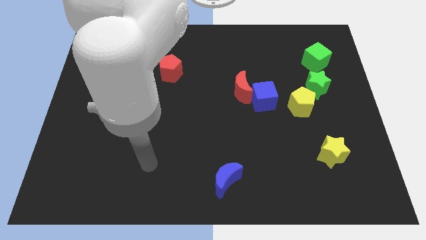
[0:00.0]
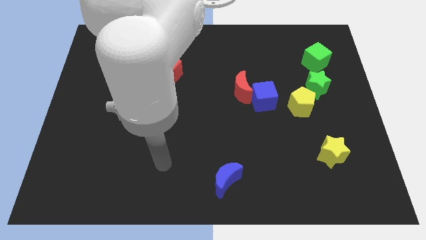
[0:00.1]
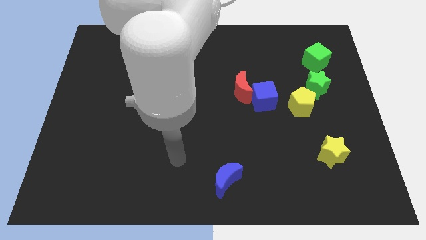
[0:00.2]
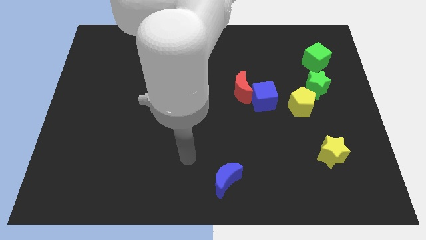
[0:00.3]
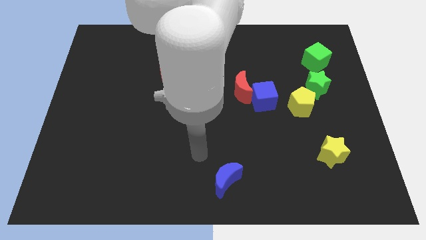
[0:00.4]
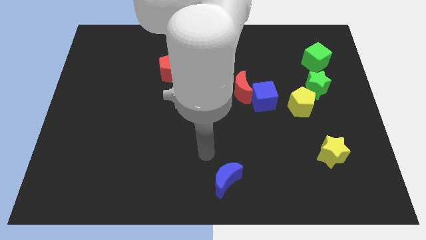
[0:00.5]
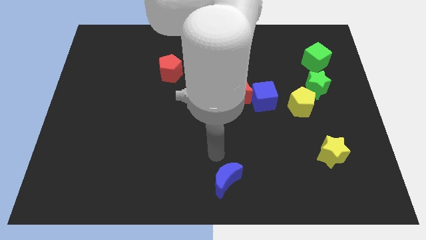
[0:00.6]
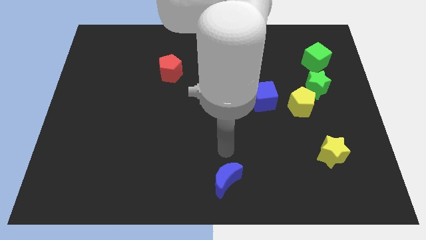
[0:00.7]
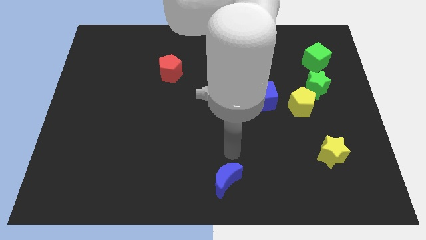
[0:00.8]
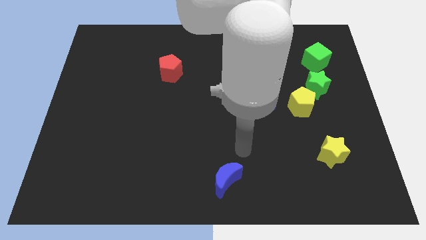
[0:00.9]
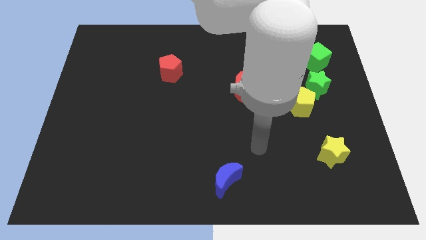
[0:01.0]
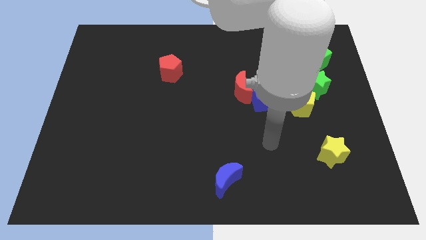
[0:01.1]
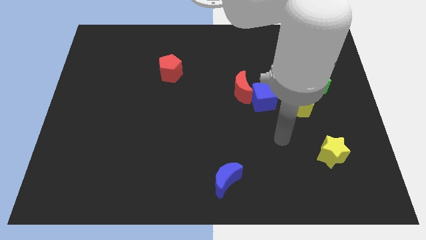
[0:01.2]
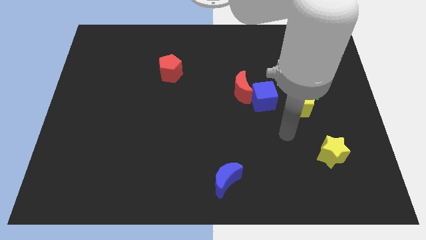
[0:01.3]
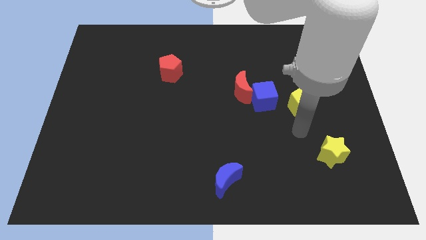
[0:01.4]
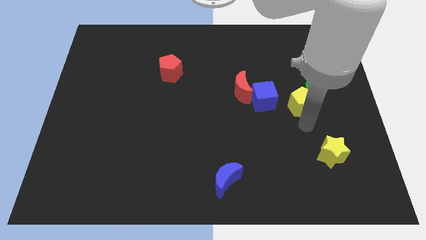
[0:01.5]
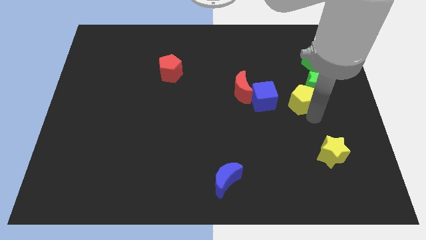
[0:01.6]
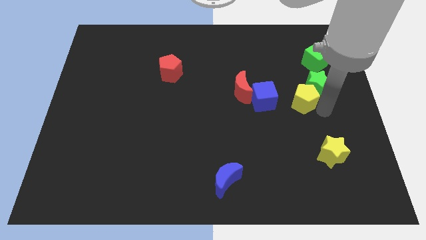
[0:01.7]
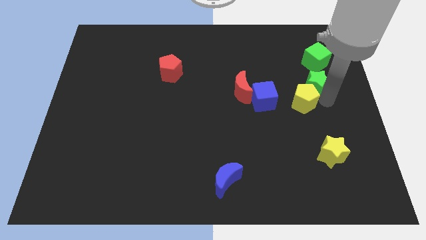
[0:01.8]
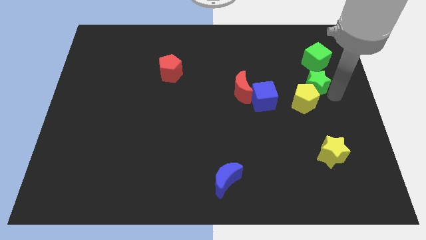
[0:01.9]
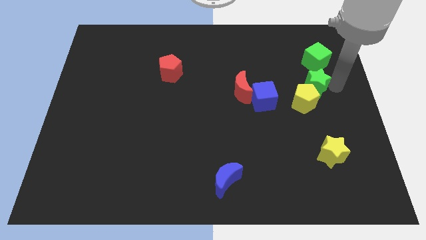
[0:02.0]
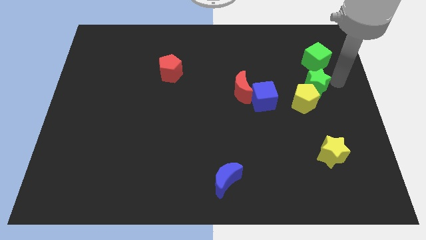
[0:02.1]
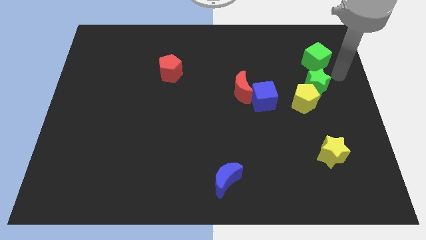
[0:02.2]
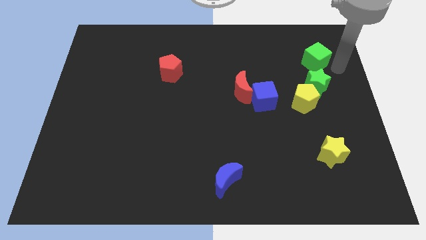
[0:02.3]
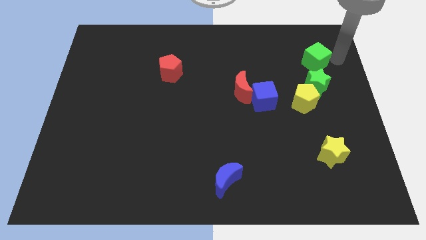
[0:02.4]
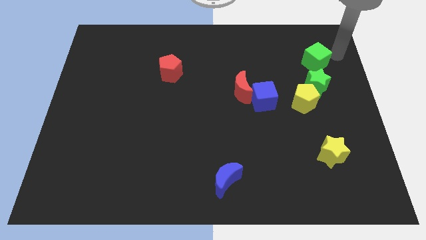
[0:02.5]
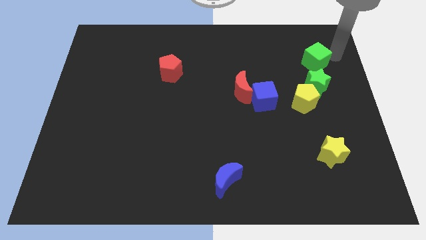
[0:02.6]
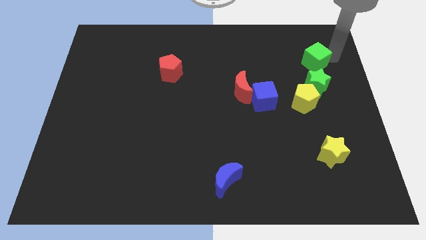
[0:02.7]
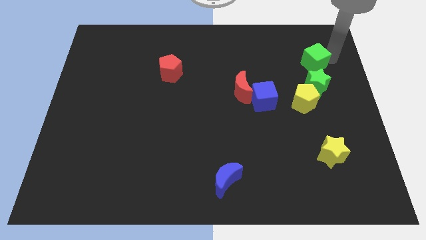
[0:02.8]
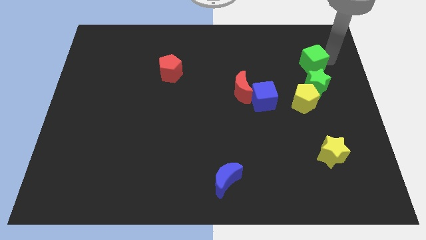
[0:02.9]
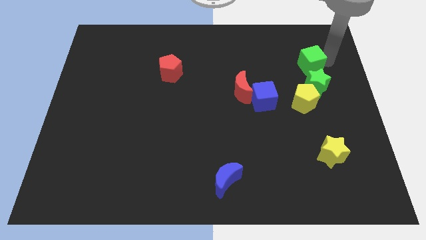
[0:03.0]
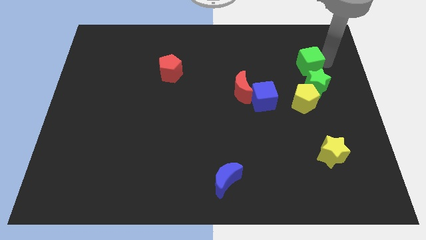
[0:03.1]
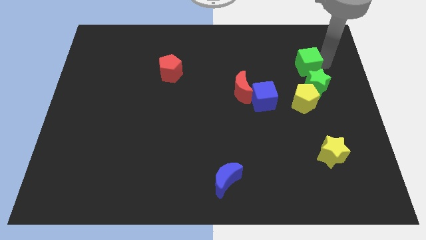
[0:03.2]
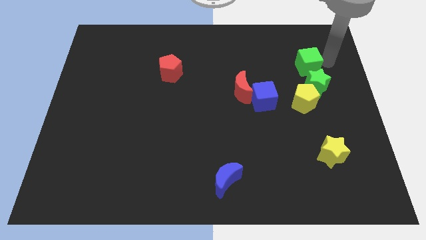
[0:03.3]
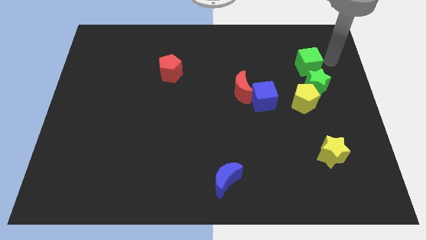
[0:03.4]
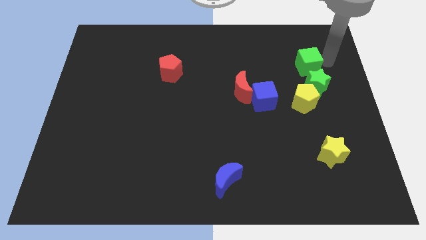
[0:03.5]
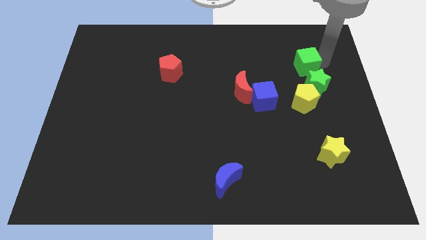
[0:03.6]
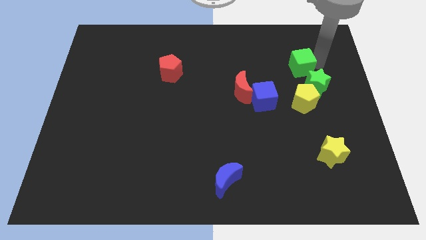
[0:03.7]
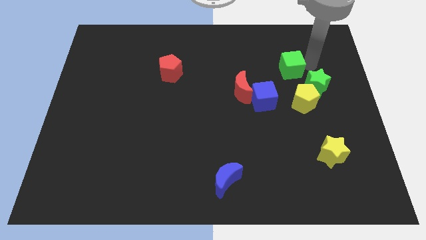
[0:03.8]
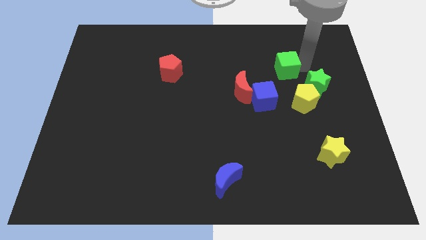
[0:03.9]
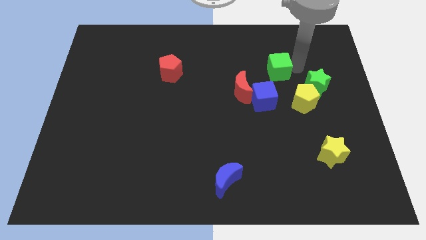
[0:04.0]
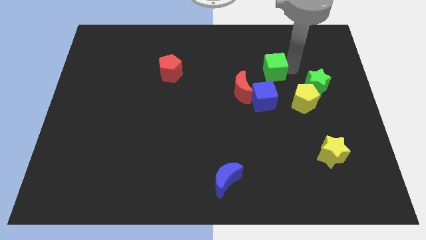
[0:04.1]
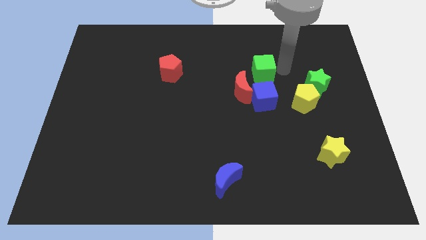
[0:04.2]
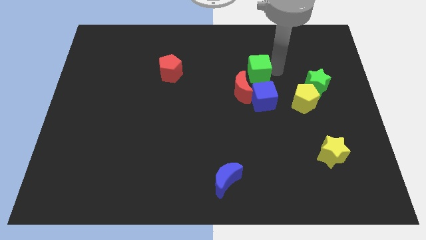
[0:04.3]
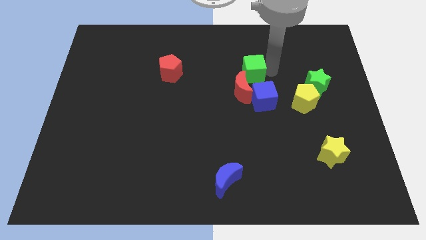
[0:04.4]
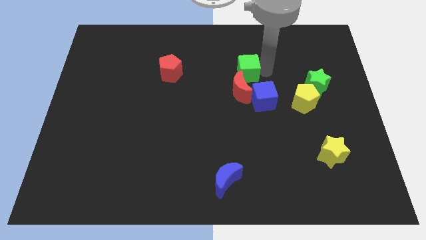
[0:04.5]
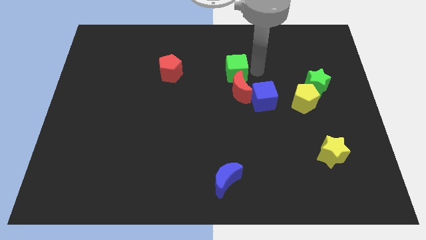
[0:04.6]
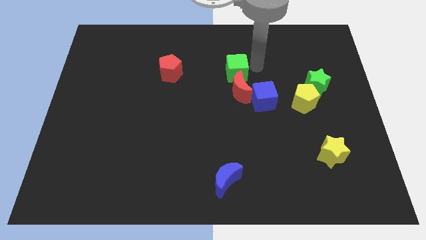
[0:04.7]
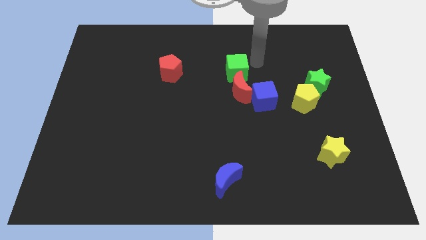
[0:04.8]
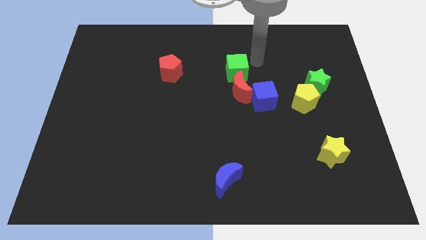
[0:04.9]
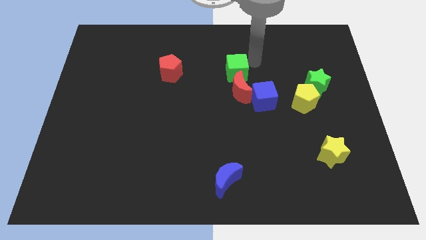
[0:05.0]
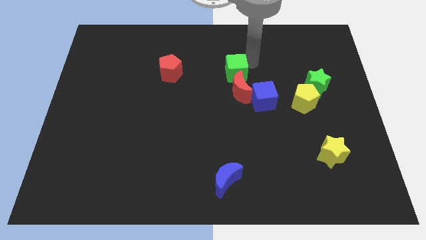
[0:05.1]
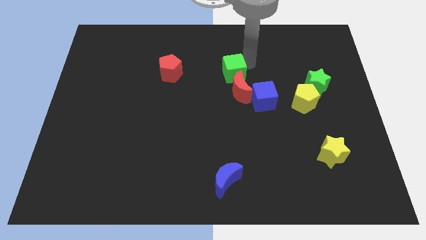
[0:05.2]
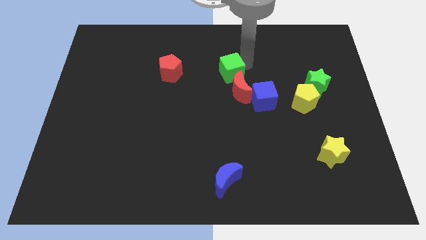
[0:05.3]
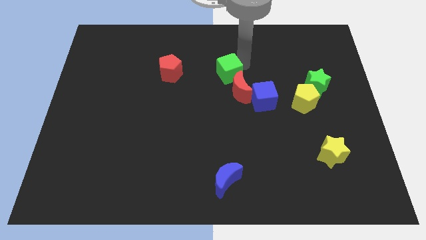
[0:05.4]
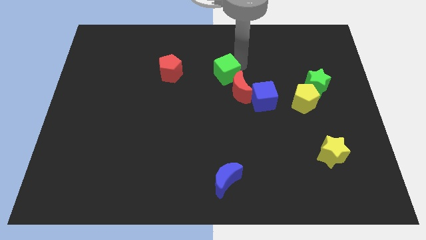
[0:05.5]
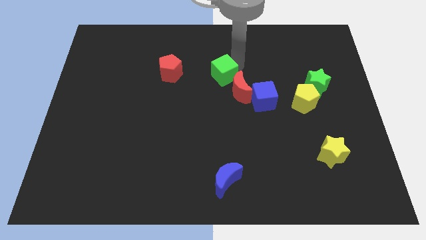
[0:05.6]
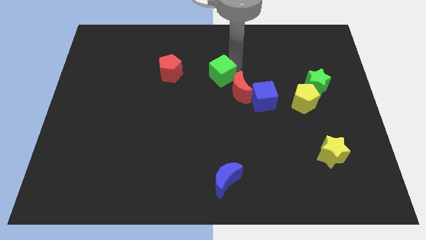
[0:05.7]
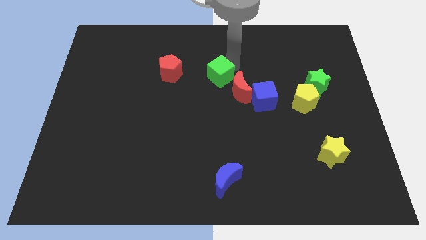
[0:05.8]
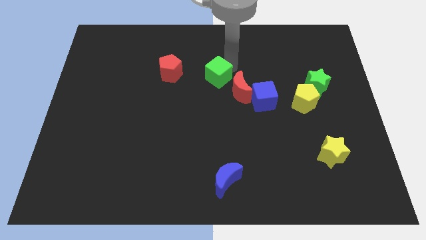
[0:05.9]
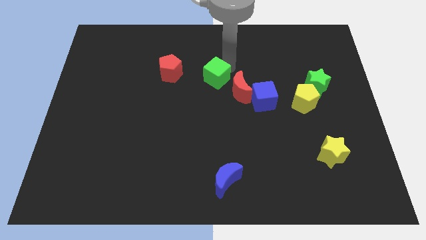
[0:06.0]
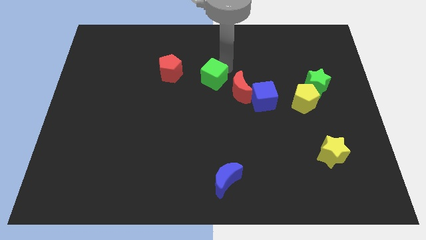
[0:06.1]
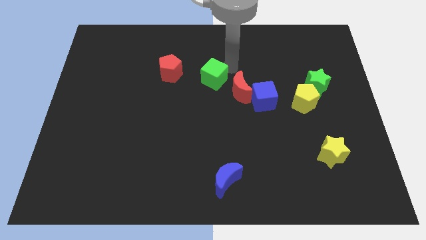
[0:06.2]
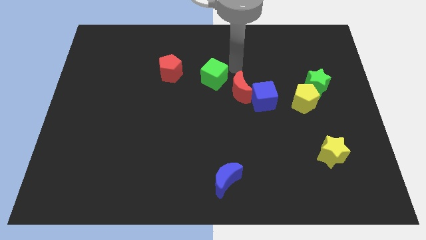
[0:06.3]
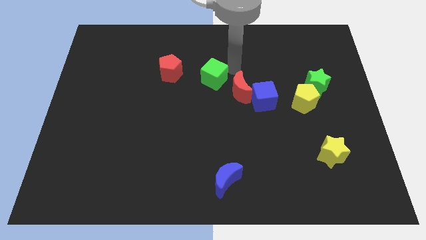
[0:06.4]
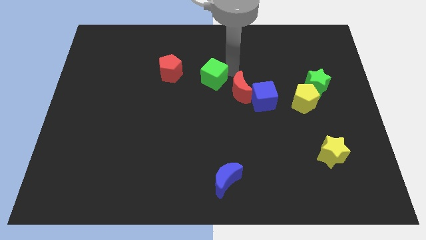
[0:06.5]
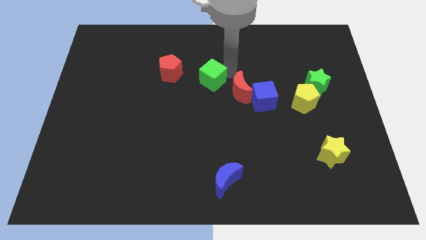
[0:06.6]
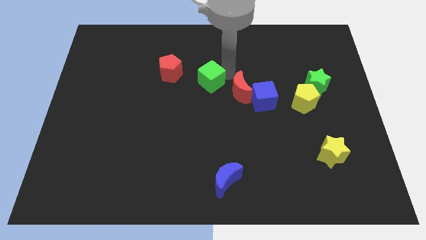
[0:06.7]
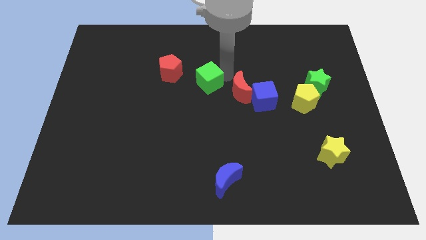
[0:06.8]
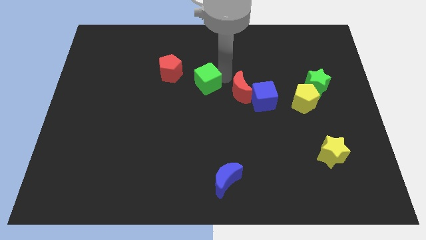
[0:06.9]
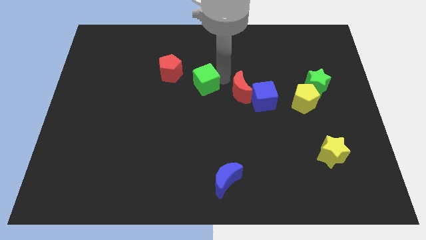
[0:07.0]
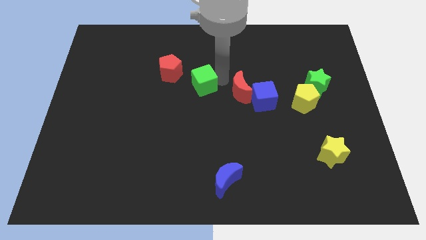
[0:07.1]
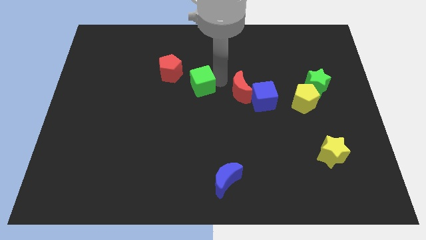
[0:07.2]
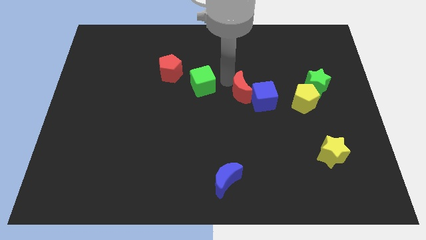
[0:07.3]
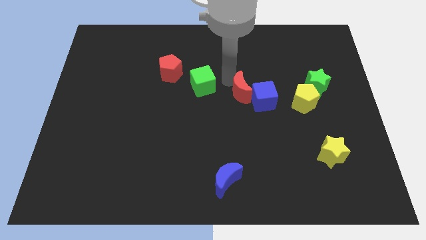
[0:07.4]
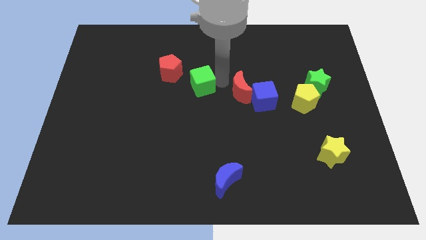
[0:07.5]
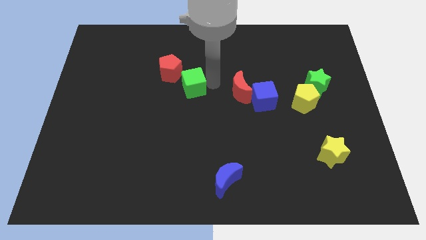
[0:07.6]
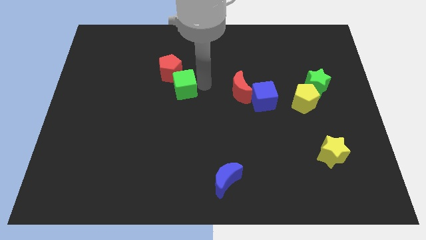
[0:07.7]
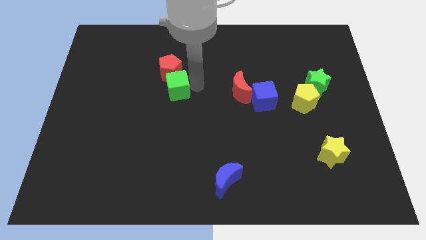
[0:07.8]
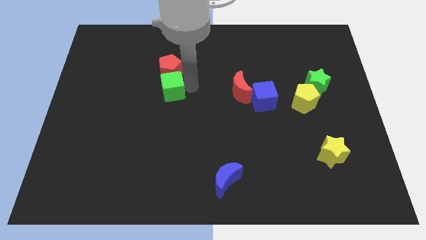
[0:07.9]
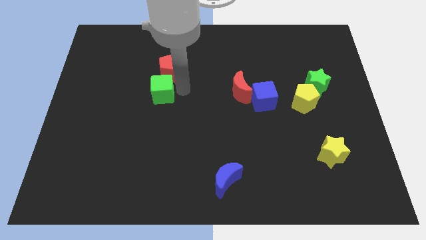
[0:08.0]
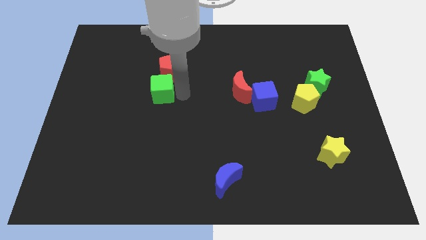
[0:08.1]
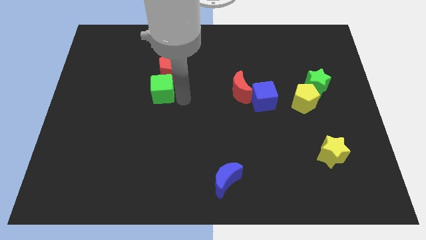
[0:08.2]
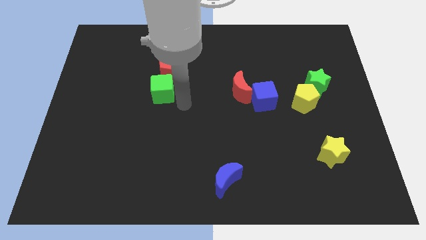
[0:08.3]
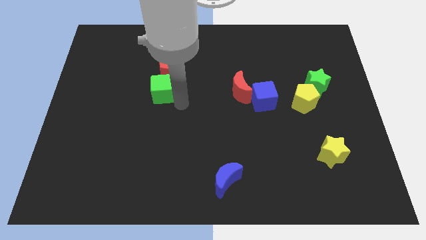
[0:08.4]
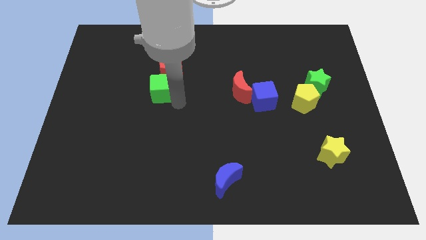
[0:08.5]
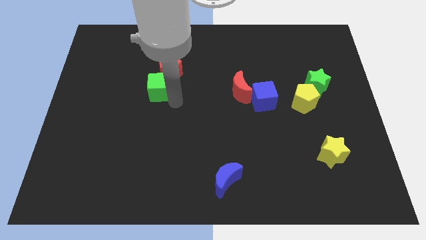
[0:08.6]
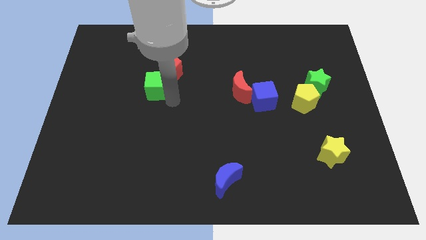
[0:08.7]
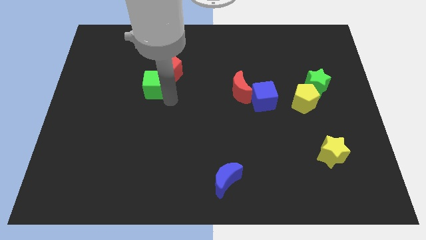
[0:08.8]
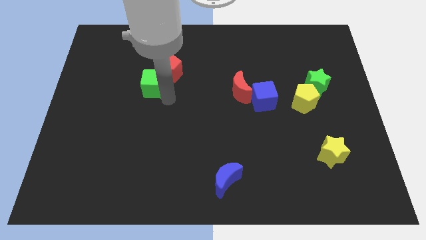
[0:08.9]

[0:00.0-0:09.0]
move the green cube to the left side of the red pentagon
